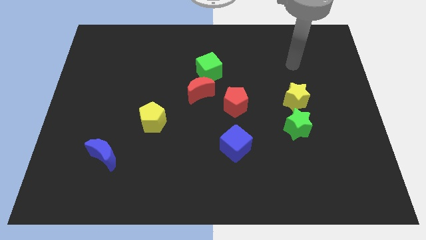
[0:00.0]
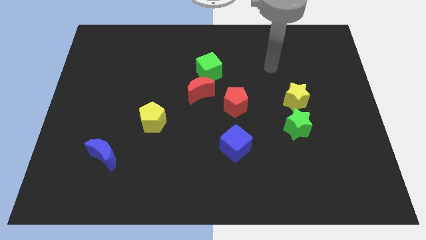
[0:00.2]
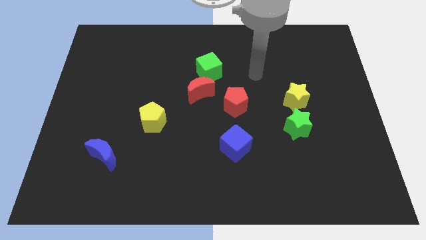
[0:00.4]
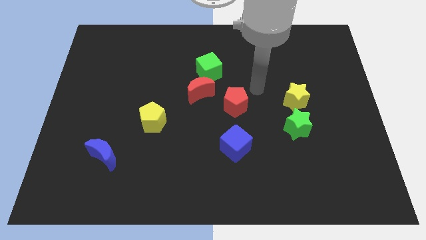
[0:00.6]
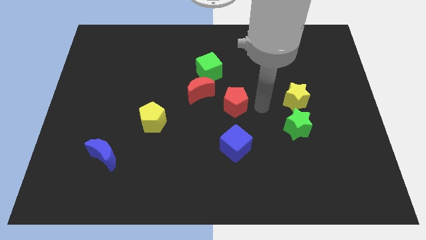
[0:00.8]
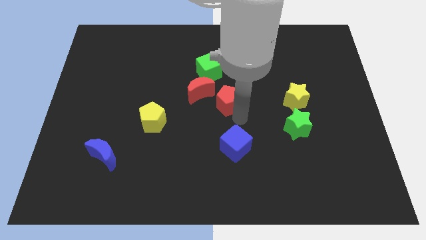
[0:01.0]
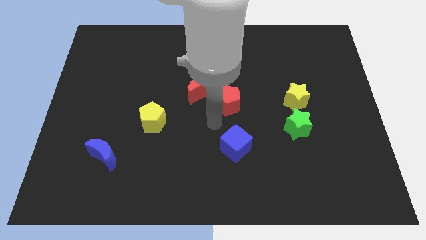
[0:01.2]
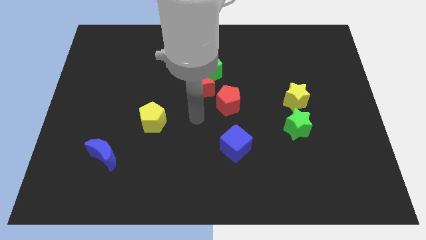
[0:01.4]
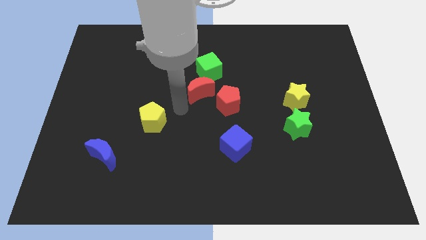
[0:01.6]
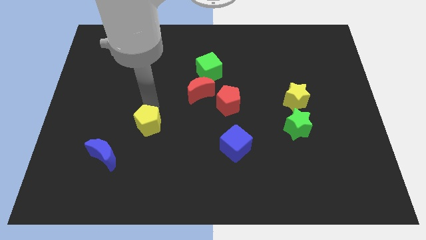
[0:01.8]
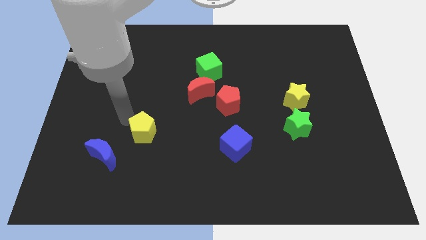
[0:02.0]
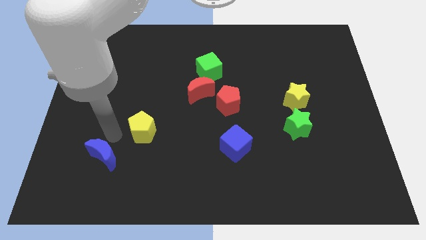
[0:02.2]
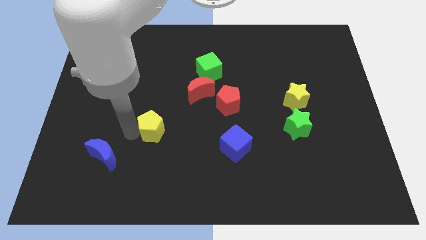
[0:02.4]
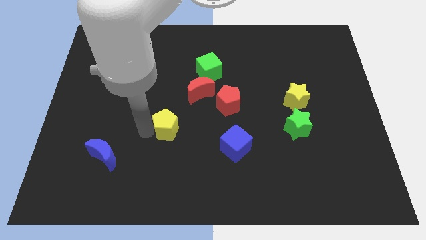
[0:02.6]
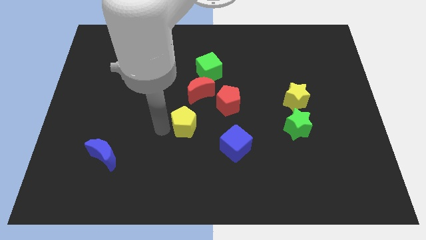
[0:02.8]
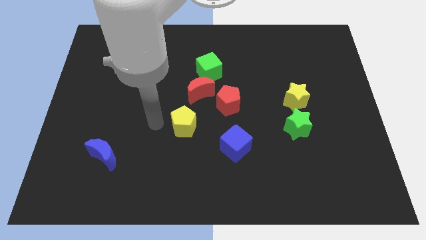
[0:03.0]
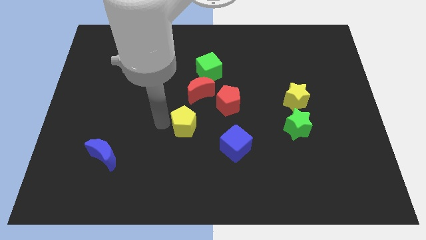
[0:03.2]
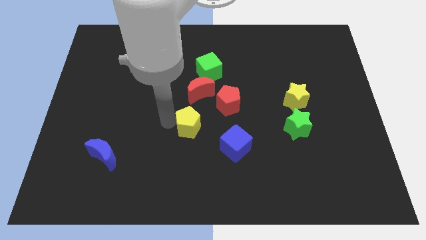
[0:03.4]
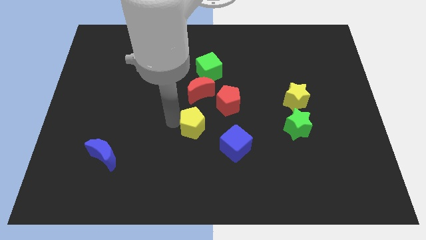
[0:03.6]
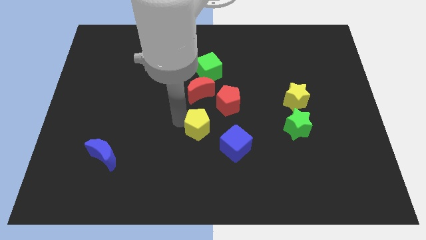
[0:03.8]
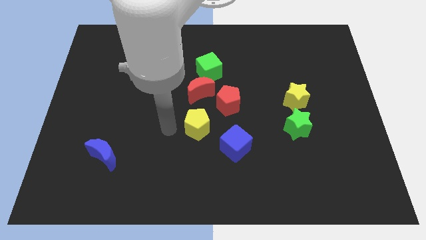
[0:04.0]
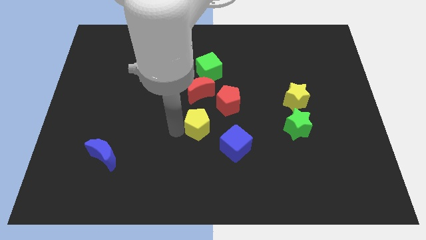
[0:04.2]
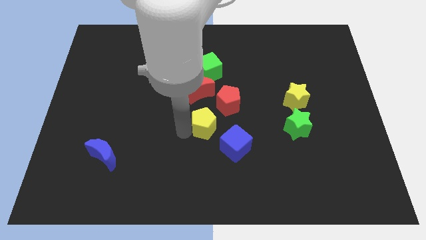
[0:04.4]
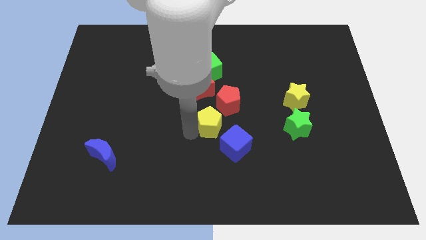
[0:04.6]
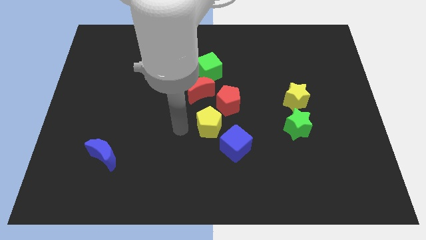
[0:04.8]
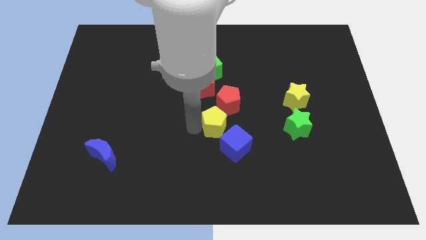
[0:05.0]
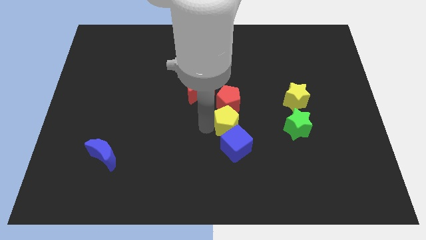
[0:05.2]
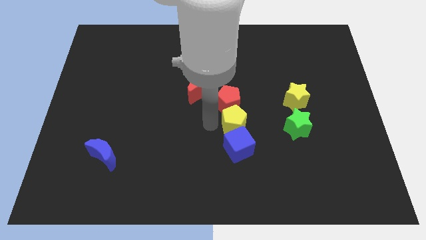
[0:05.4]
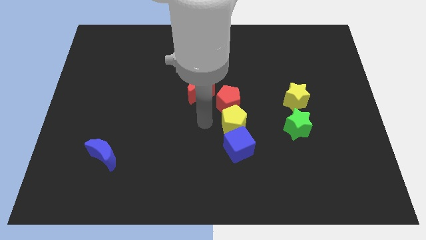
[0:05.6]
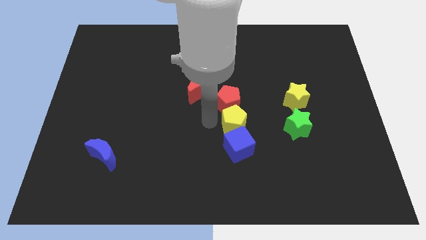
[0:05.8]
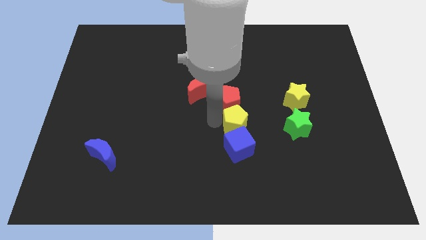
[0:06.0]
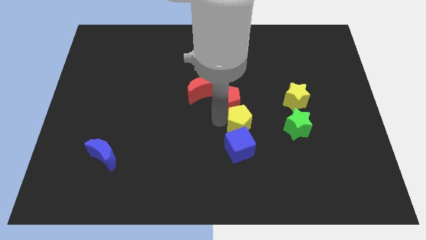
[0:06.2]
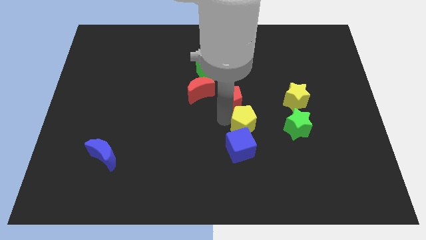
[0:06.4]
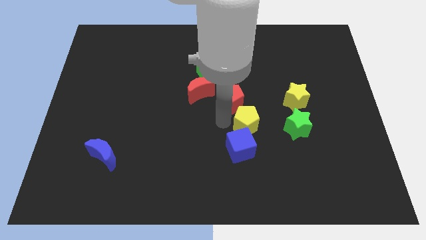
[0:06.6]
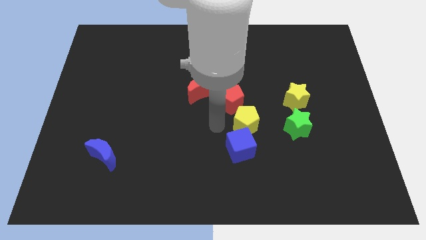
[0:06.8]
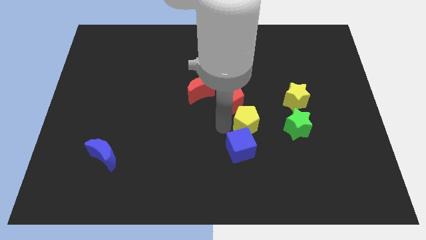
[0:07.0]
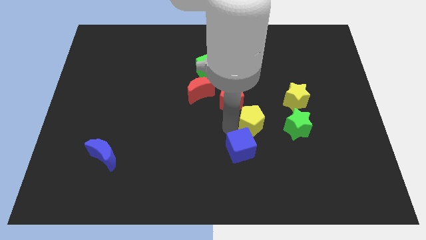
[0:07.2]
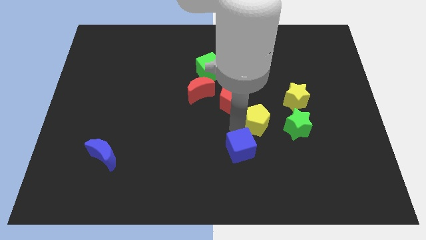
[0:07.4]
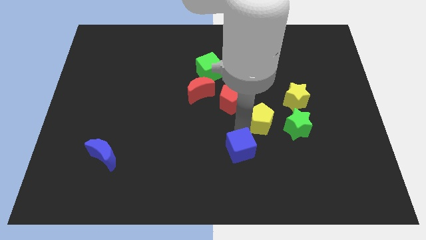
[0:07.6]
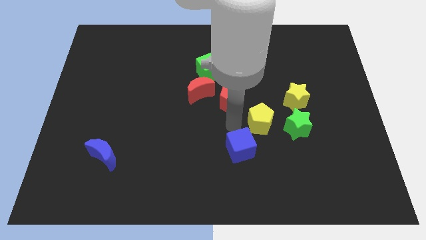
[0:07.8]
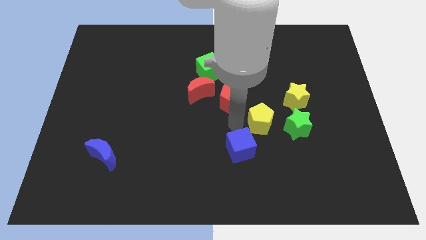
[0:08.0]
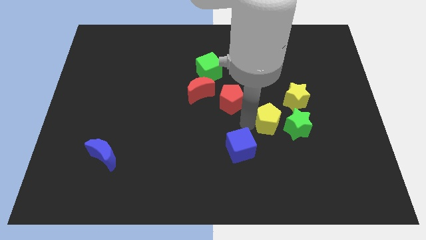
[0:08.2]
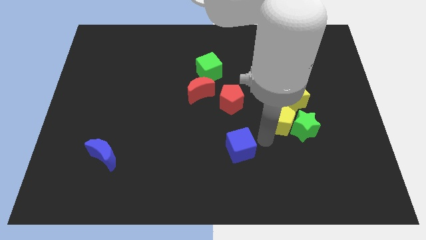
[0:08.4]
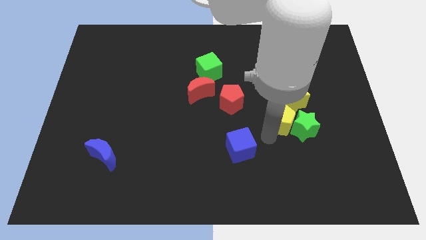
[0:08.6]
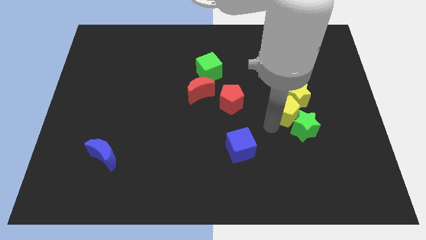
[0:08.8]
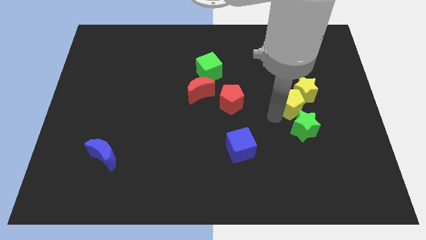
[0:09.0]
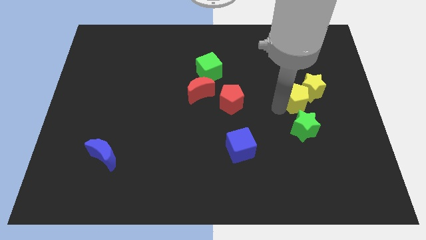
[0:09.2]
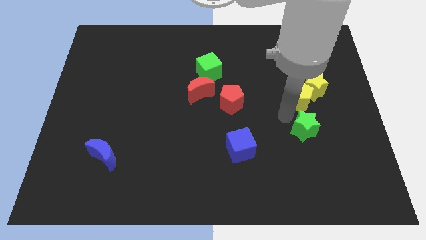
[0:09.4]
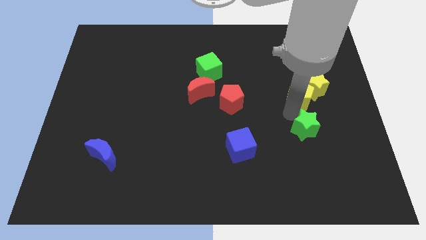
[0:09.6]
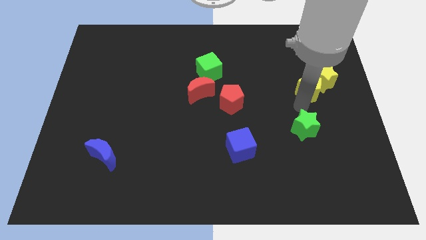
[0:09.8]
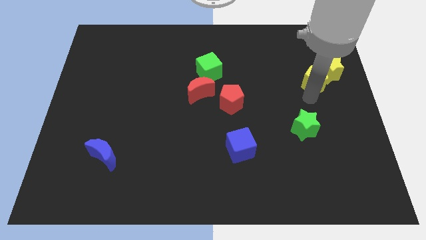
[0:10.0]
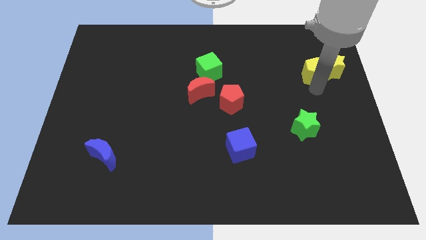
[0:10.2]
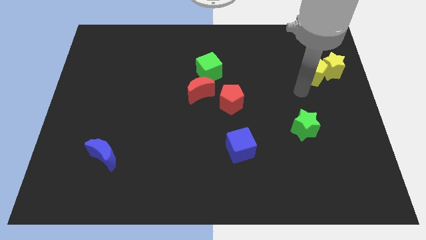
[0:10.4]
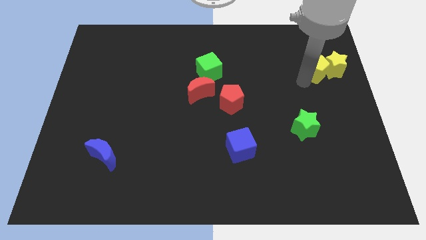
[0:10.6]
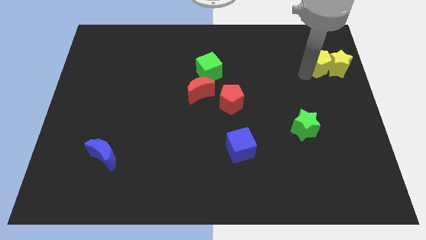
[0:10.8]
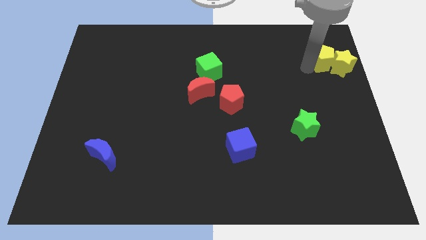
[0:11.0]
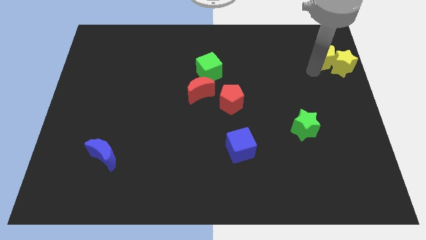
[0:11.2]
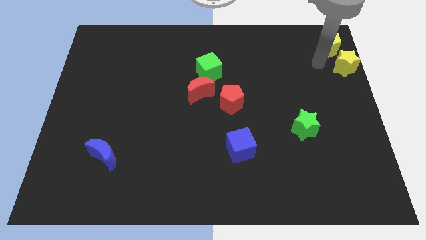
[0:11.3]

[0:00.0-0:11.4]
put the yellow pentagon to the top right
